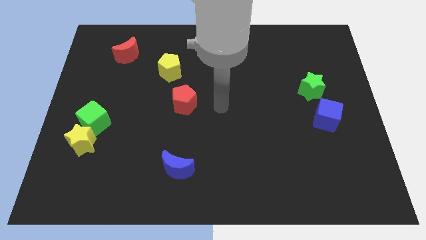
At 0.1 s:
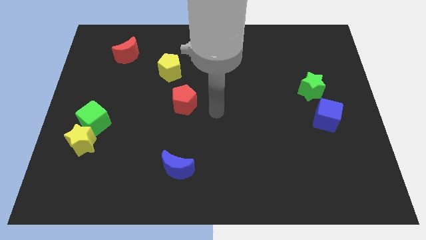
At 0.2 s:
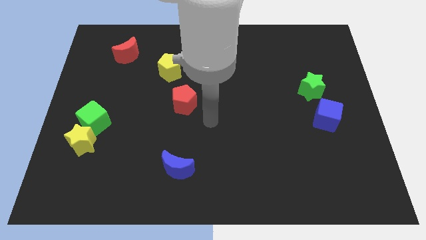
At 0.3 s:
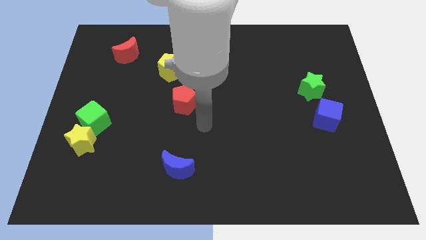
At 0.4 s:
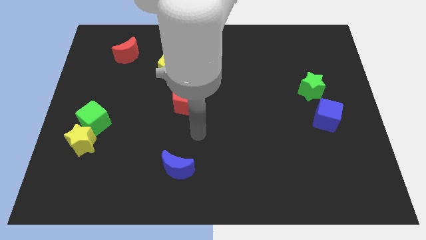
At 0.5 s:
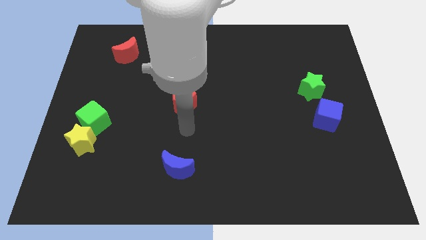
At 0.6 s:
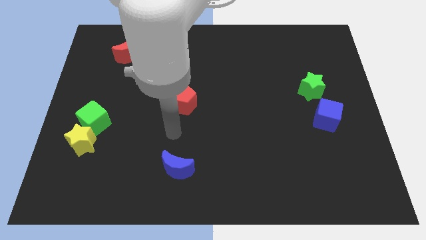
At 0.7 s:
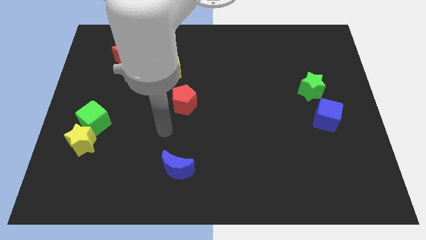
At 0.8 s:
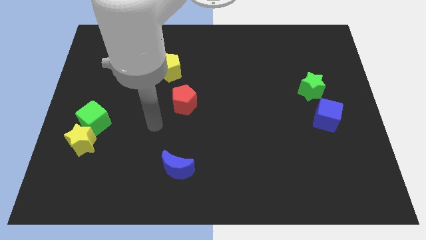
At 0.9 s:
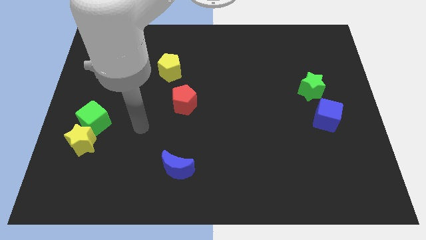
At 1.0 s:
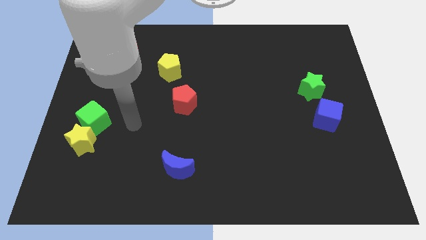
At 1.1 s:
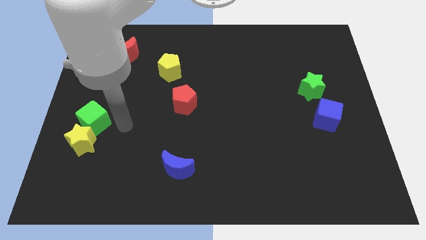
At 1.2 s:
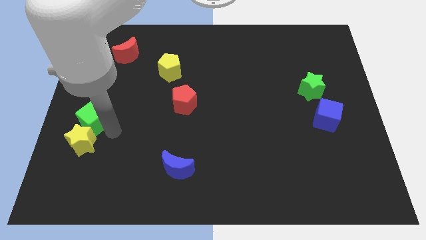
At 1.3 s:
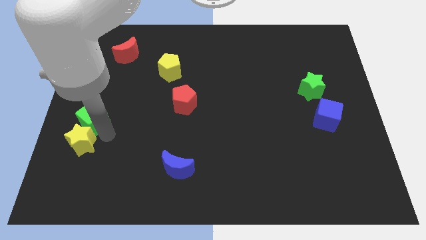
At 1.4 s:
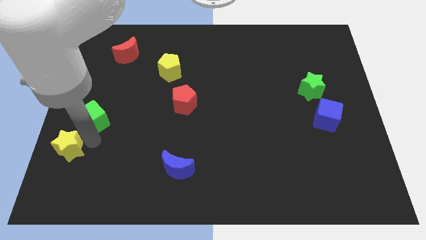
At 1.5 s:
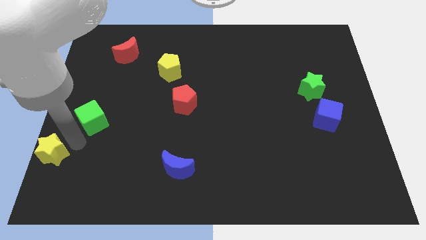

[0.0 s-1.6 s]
separate the green cube from the yellow star

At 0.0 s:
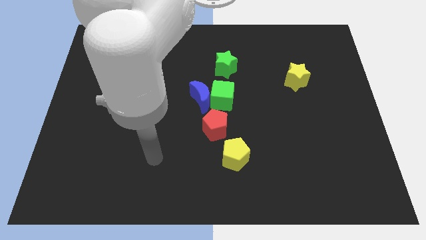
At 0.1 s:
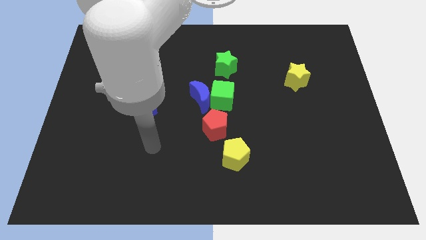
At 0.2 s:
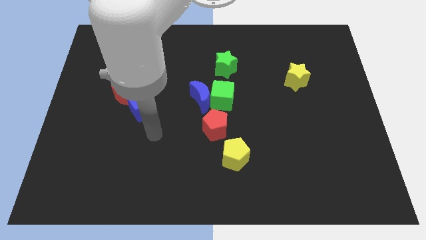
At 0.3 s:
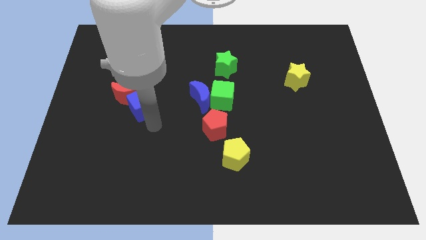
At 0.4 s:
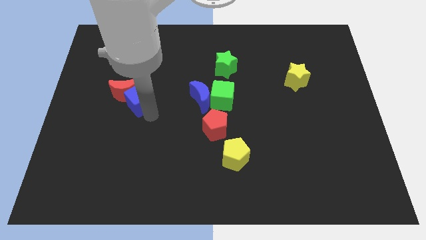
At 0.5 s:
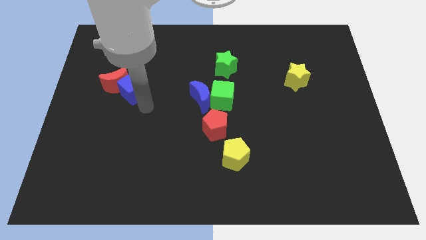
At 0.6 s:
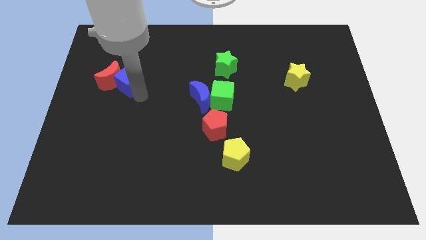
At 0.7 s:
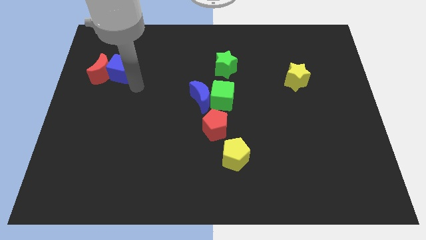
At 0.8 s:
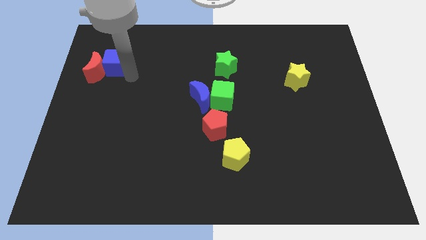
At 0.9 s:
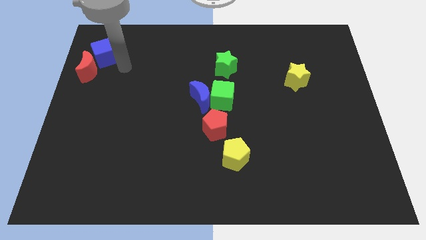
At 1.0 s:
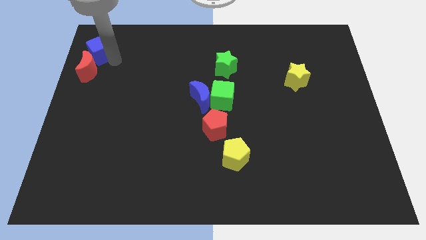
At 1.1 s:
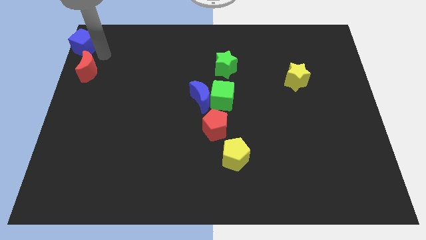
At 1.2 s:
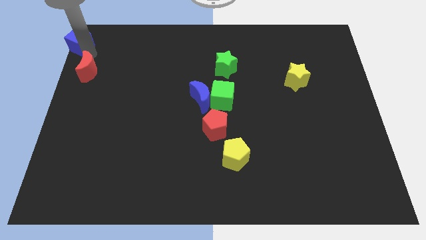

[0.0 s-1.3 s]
move the red moon away from the blue cube

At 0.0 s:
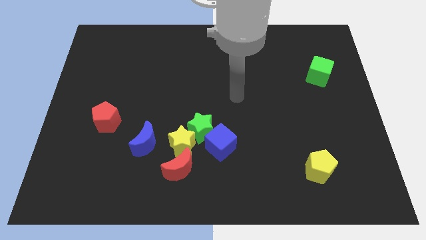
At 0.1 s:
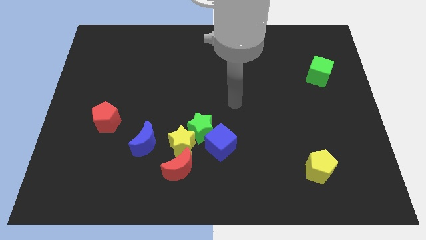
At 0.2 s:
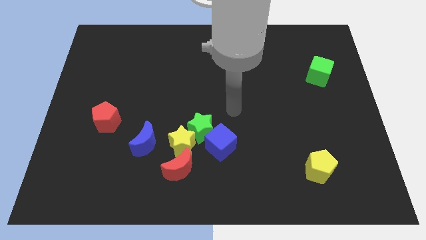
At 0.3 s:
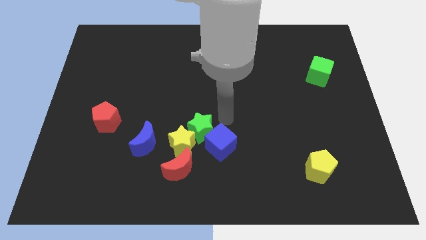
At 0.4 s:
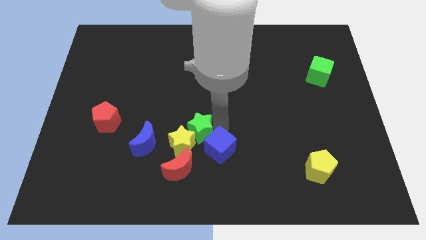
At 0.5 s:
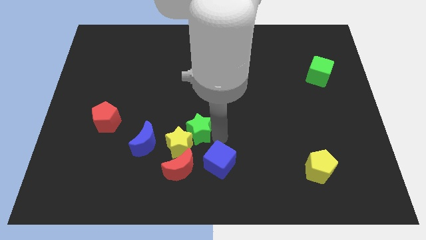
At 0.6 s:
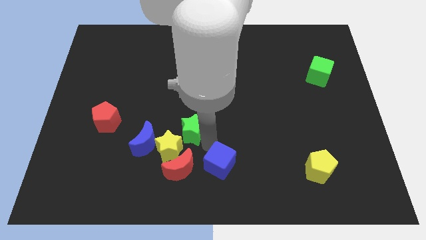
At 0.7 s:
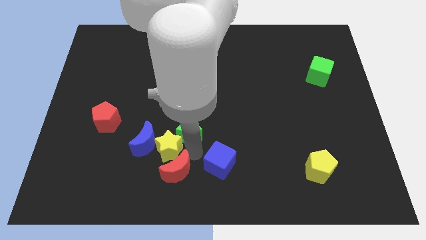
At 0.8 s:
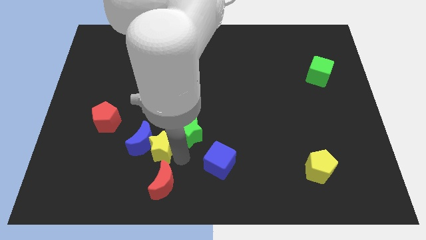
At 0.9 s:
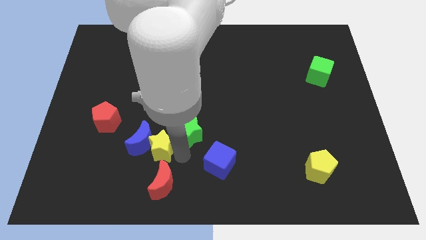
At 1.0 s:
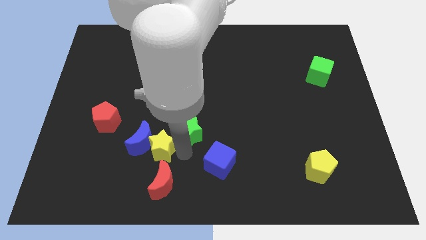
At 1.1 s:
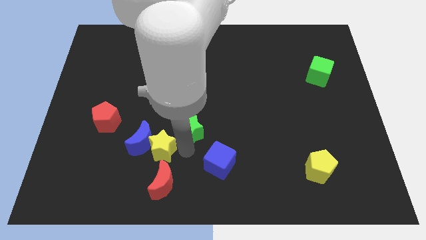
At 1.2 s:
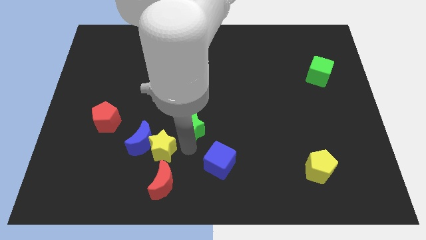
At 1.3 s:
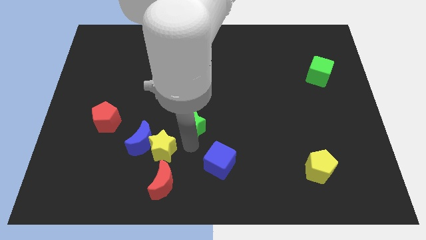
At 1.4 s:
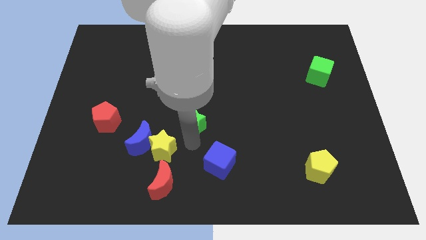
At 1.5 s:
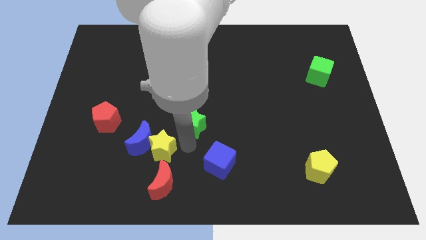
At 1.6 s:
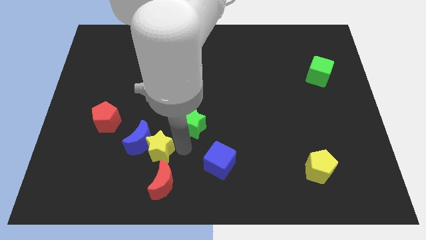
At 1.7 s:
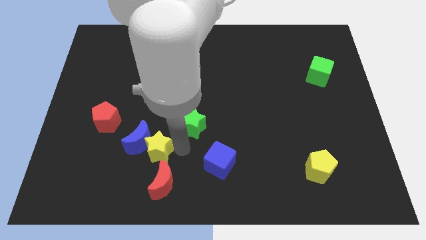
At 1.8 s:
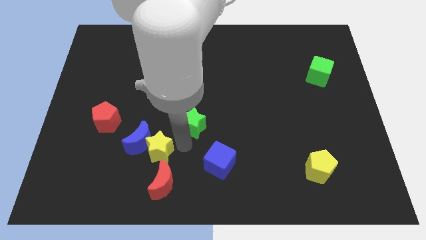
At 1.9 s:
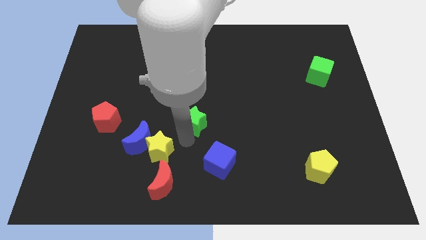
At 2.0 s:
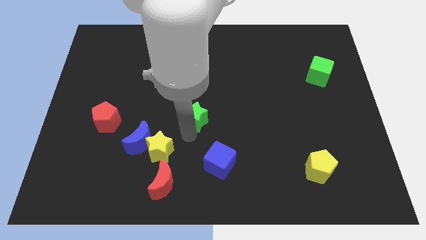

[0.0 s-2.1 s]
move the green star away from the yellow star and blue cube

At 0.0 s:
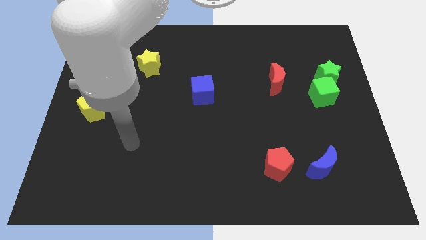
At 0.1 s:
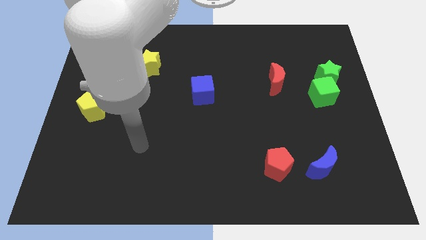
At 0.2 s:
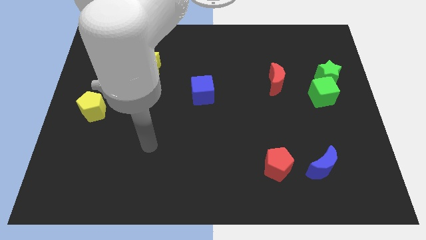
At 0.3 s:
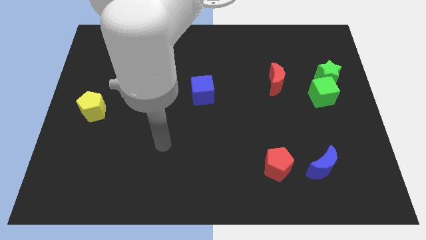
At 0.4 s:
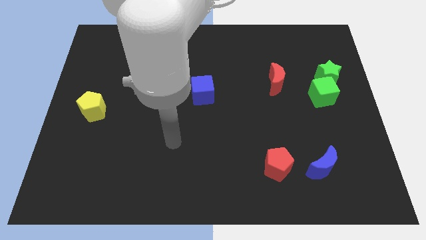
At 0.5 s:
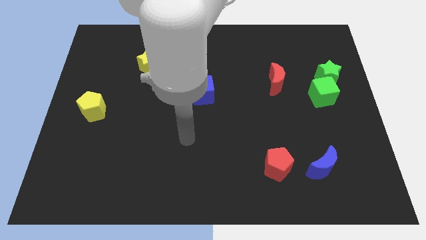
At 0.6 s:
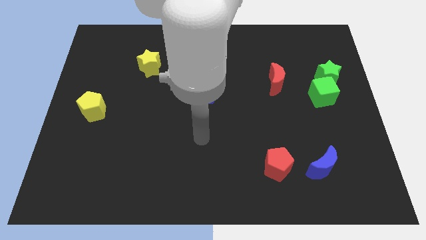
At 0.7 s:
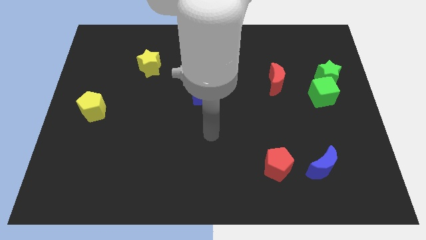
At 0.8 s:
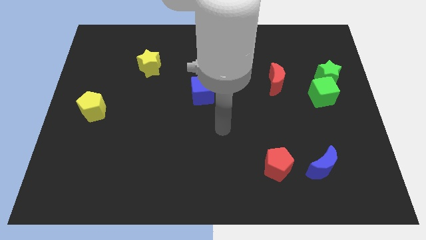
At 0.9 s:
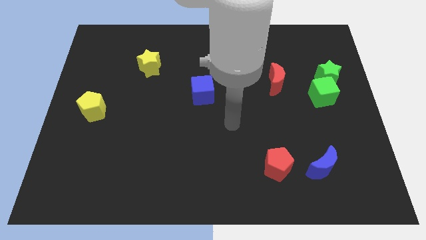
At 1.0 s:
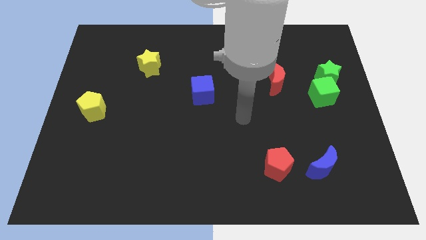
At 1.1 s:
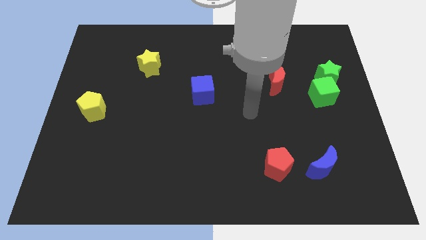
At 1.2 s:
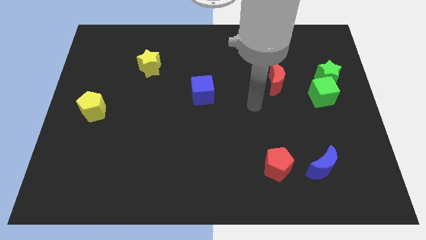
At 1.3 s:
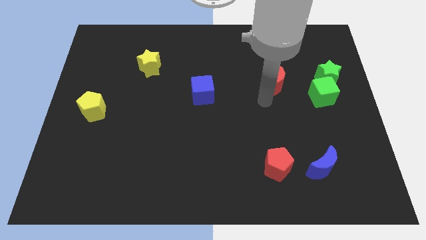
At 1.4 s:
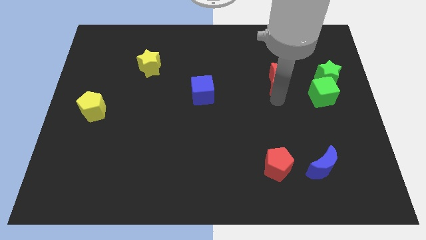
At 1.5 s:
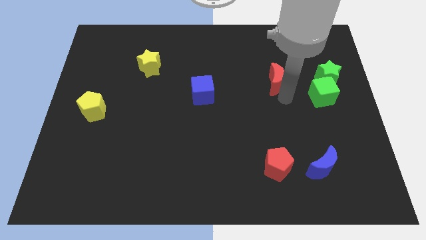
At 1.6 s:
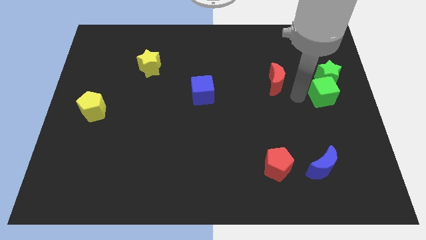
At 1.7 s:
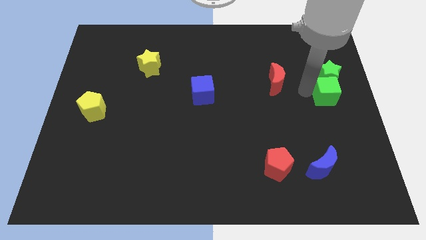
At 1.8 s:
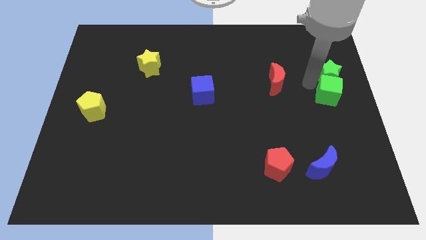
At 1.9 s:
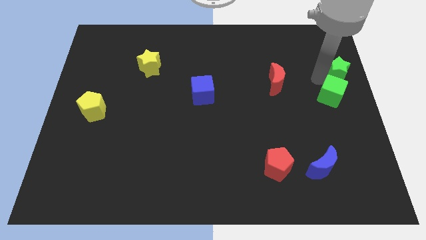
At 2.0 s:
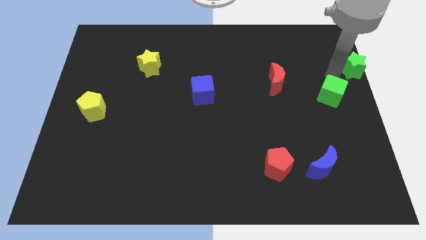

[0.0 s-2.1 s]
move the green cube away from the green star

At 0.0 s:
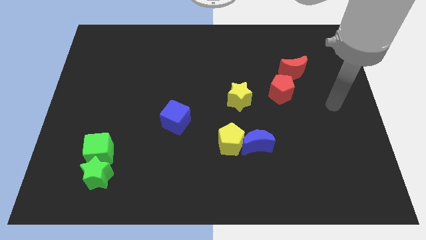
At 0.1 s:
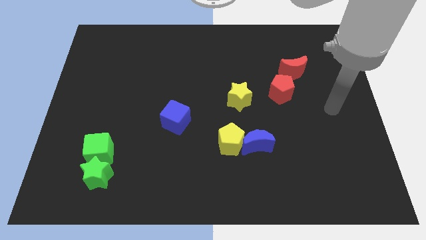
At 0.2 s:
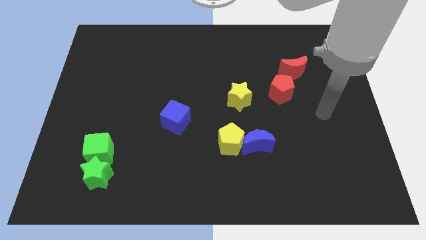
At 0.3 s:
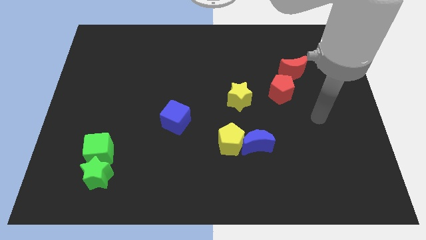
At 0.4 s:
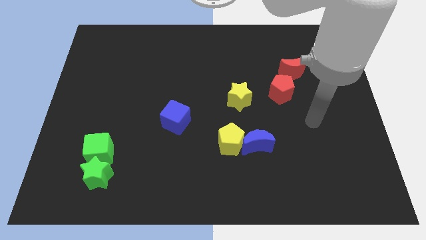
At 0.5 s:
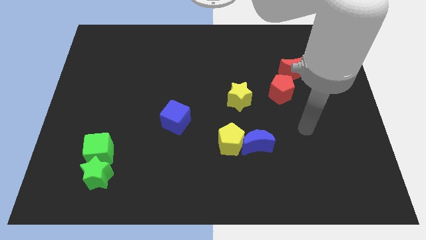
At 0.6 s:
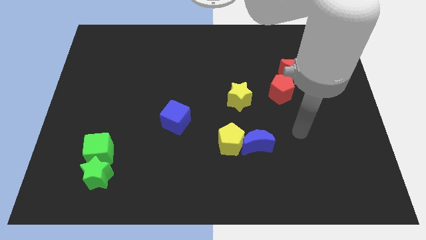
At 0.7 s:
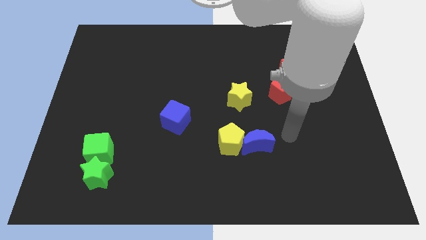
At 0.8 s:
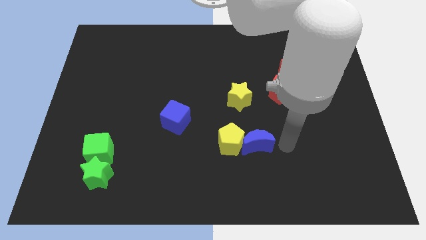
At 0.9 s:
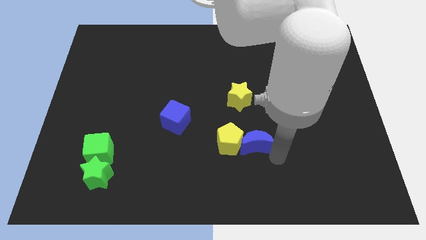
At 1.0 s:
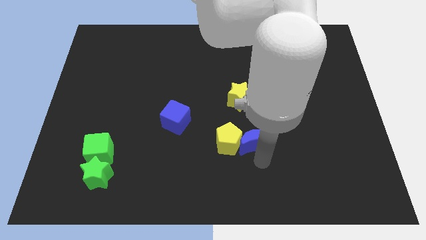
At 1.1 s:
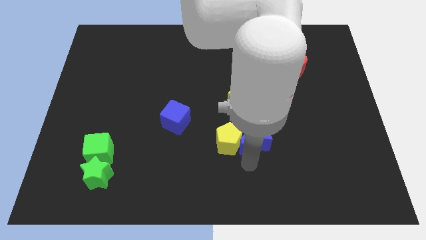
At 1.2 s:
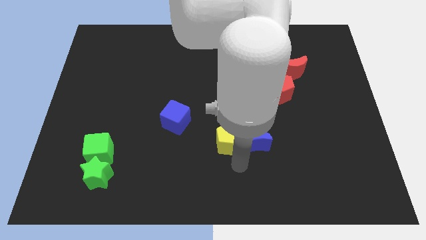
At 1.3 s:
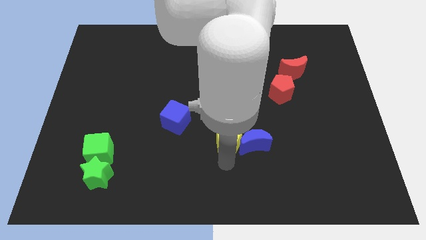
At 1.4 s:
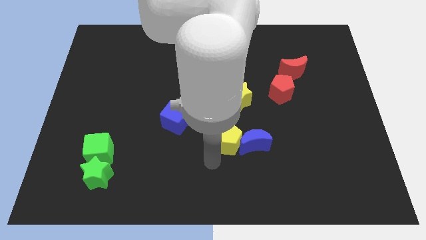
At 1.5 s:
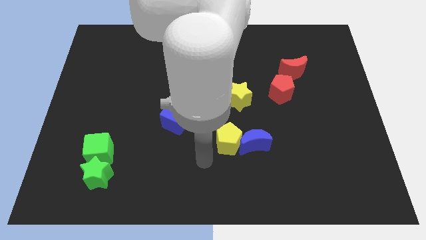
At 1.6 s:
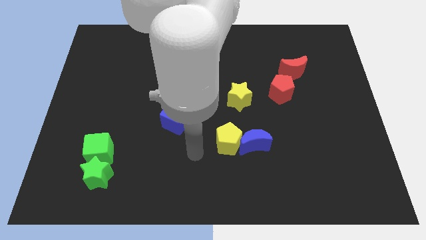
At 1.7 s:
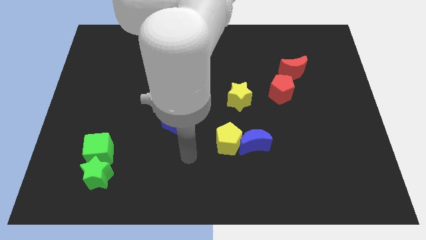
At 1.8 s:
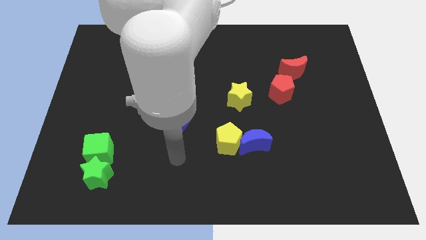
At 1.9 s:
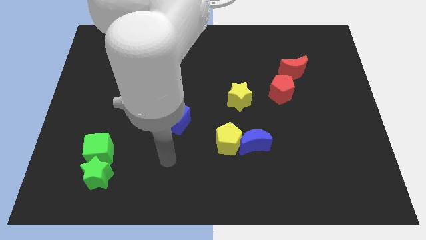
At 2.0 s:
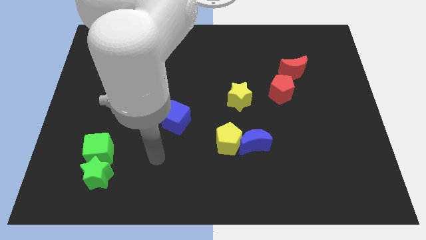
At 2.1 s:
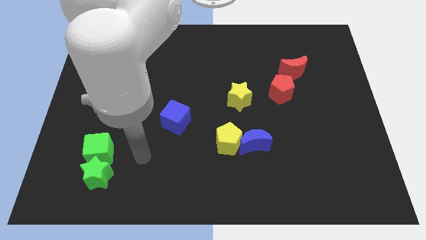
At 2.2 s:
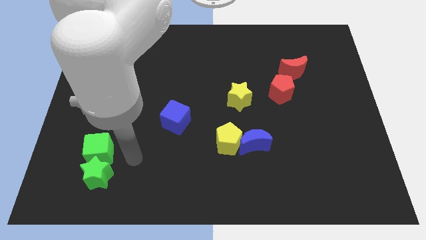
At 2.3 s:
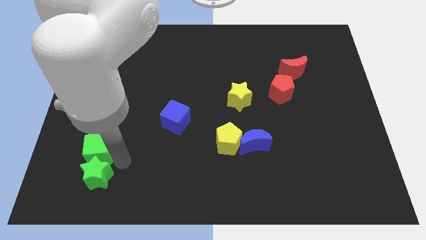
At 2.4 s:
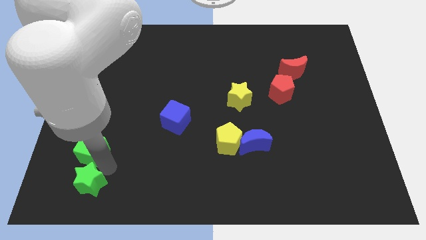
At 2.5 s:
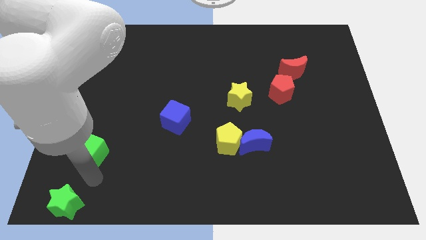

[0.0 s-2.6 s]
pull the green cube apart from the green star
